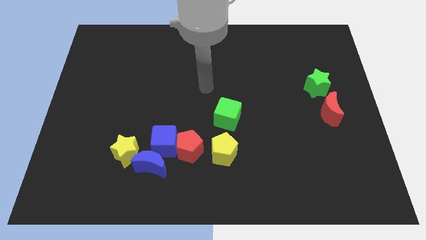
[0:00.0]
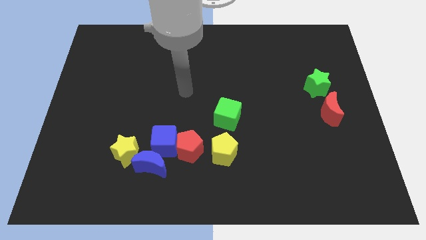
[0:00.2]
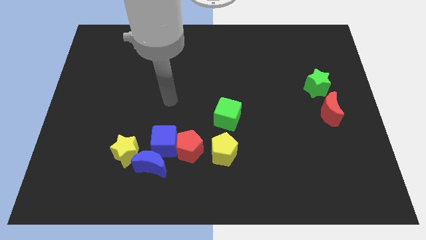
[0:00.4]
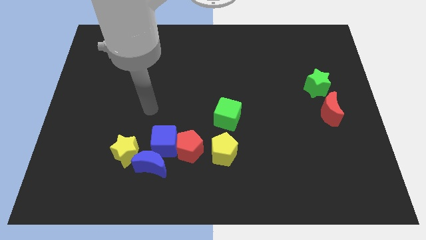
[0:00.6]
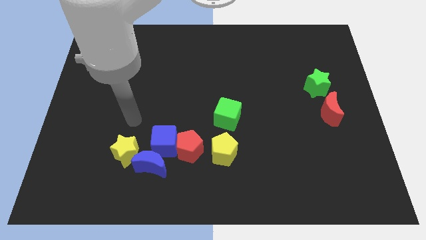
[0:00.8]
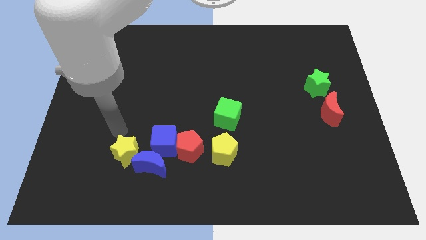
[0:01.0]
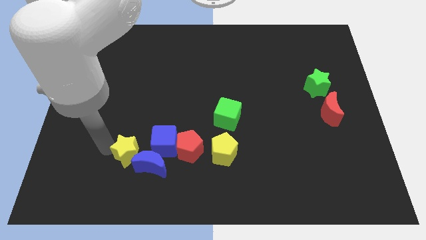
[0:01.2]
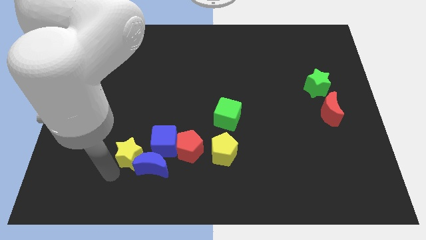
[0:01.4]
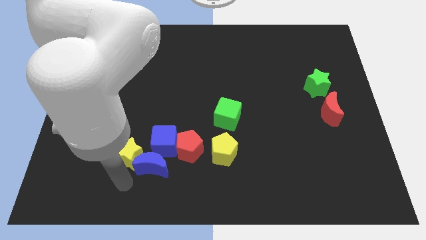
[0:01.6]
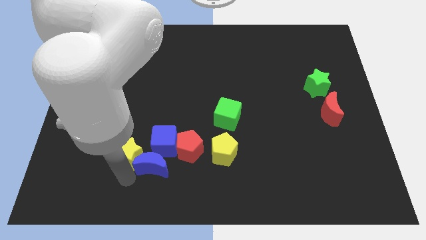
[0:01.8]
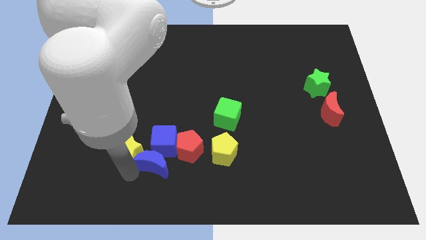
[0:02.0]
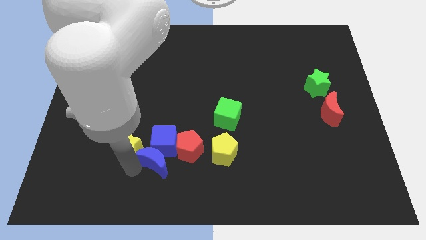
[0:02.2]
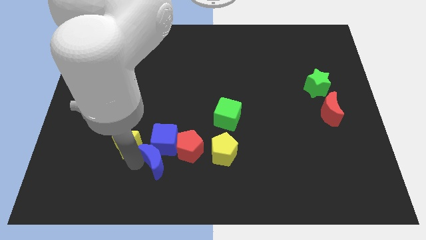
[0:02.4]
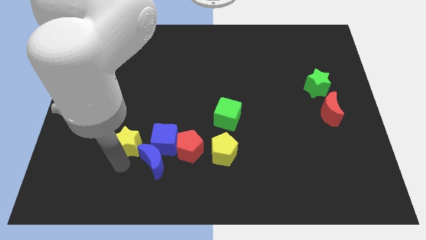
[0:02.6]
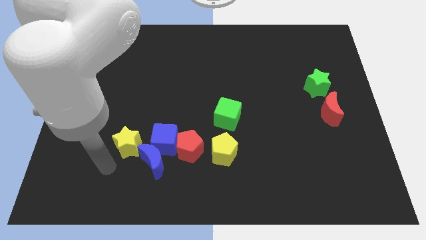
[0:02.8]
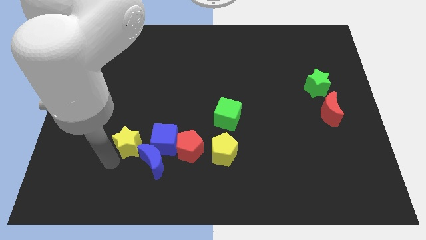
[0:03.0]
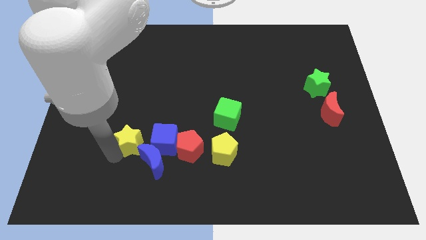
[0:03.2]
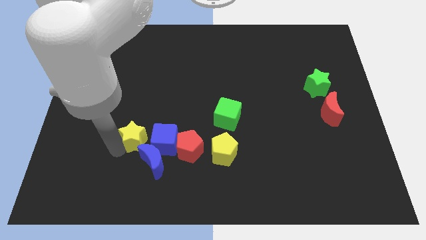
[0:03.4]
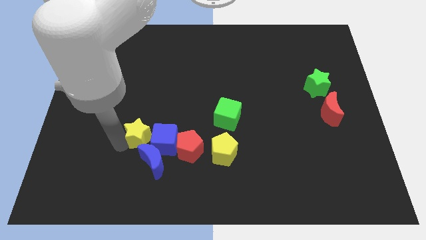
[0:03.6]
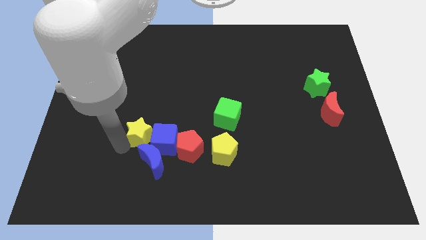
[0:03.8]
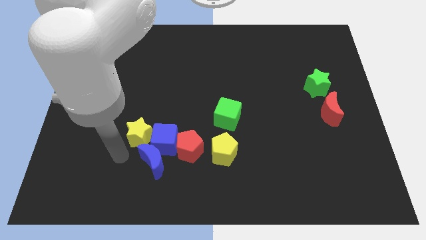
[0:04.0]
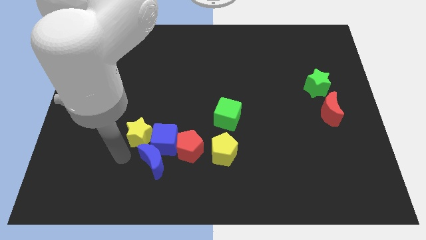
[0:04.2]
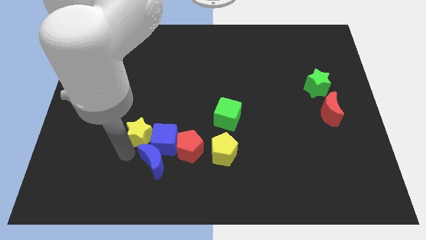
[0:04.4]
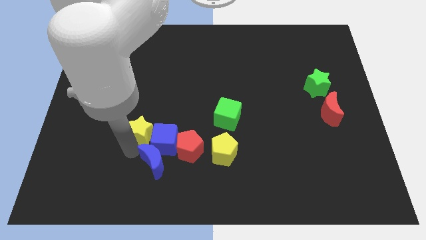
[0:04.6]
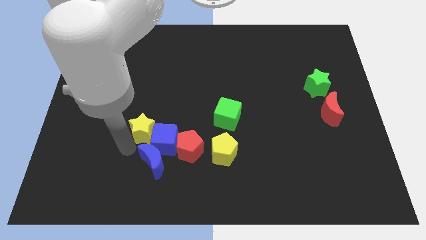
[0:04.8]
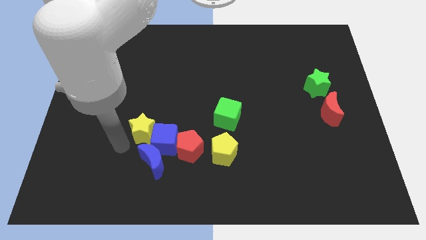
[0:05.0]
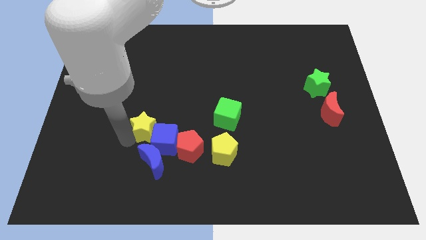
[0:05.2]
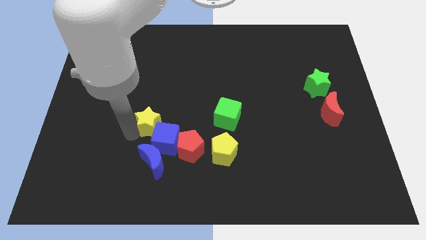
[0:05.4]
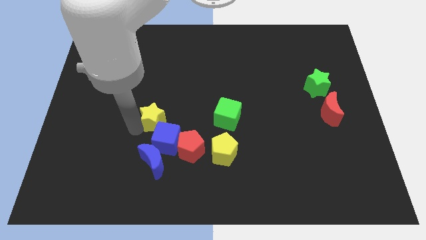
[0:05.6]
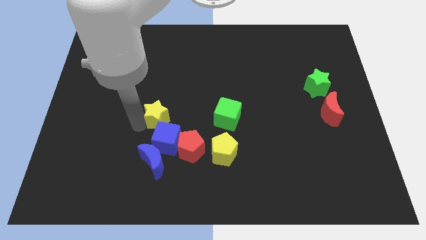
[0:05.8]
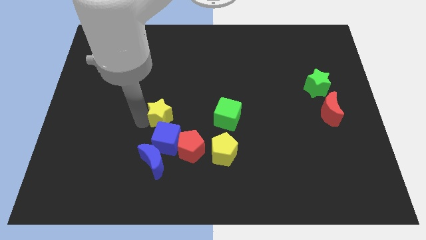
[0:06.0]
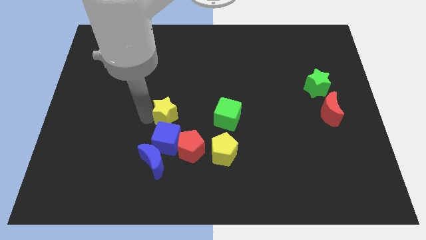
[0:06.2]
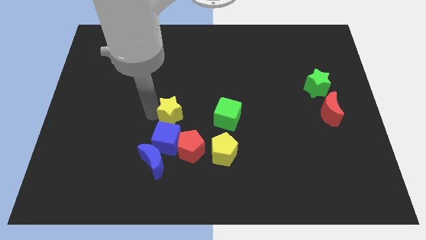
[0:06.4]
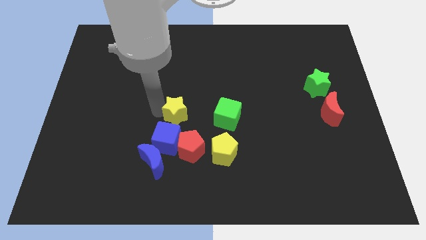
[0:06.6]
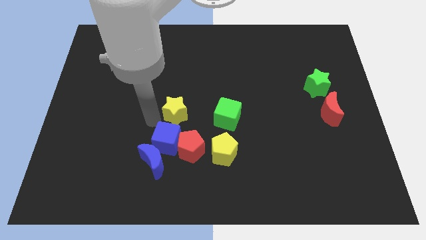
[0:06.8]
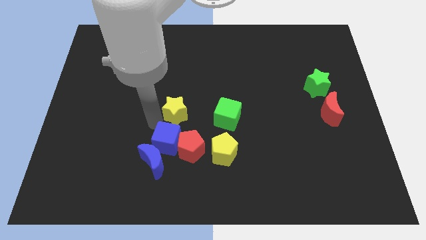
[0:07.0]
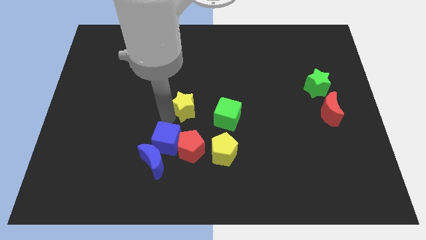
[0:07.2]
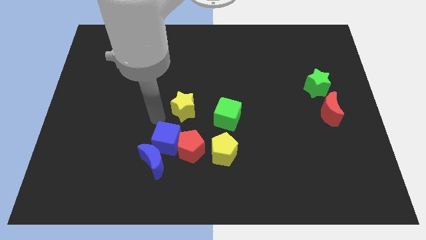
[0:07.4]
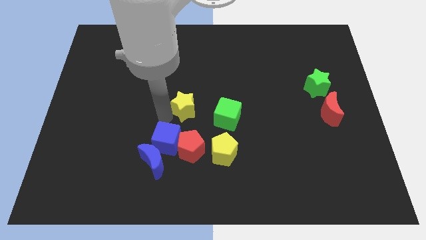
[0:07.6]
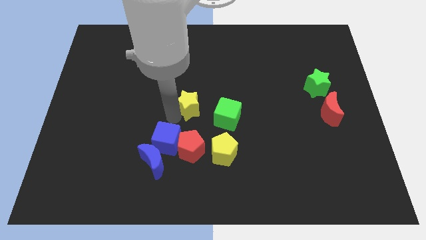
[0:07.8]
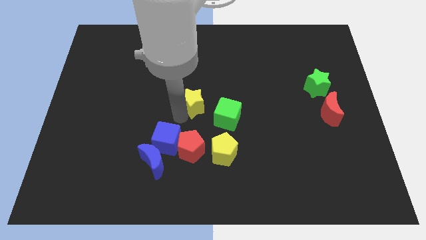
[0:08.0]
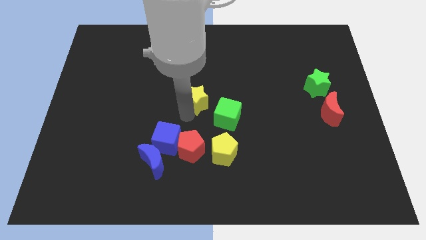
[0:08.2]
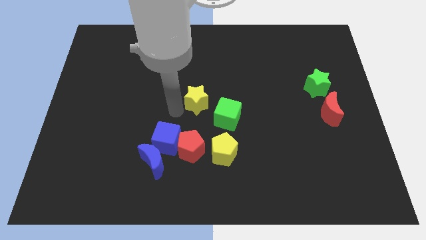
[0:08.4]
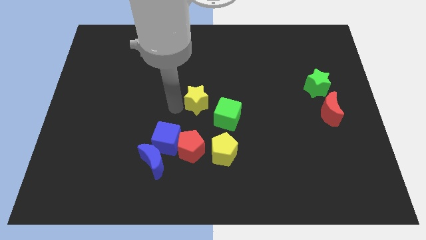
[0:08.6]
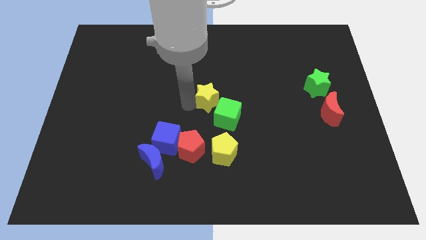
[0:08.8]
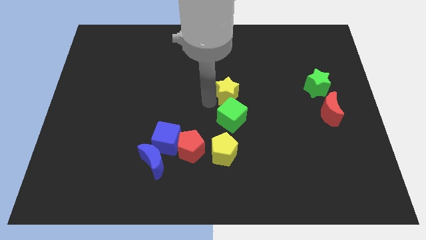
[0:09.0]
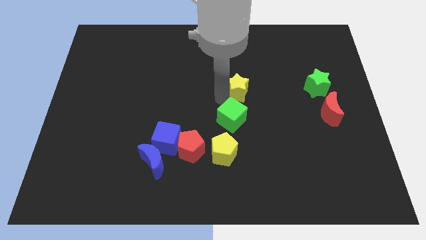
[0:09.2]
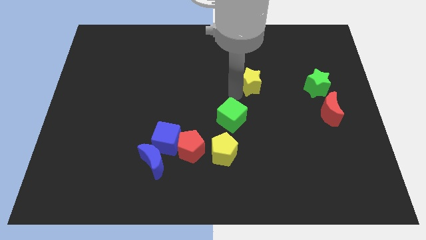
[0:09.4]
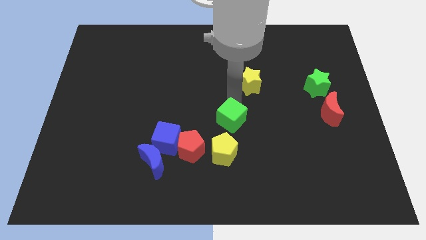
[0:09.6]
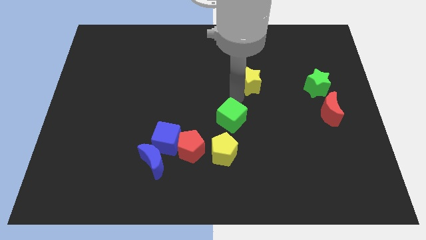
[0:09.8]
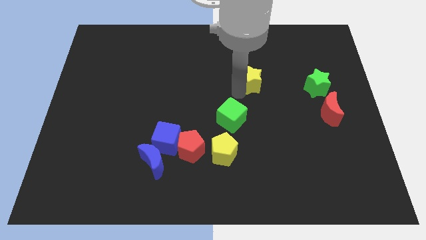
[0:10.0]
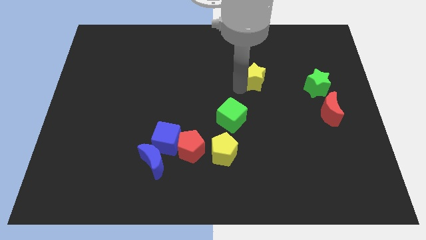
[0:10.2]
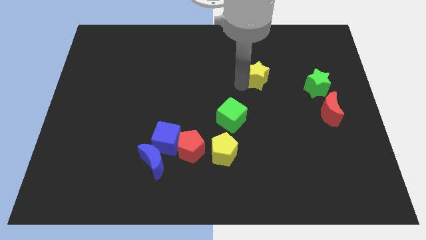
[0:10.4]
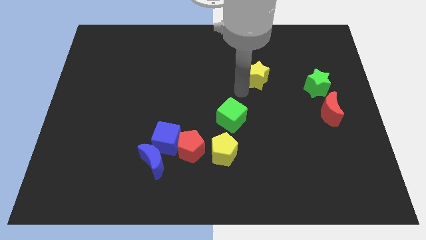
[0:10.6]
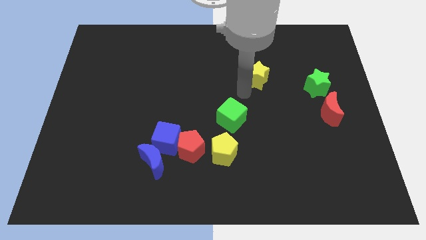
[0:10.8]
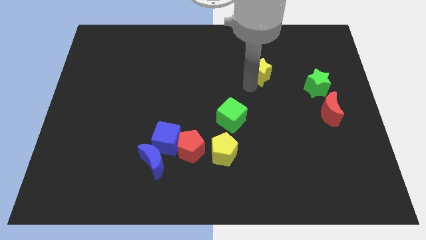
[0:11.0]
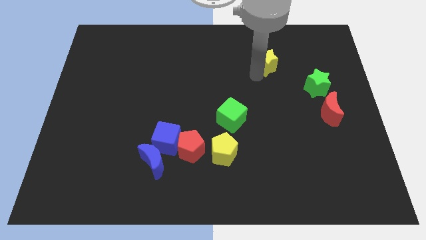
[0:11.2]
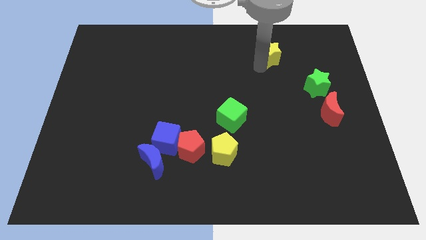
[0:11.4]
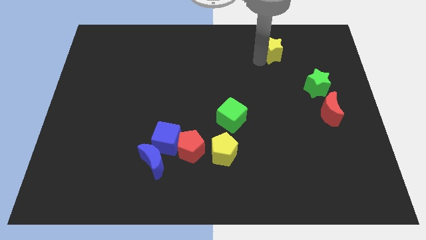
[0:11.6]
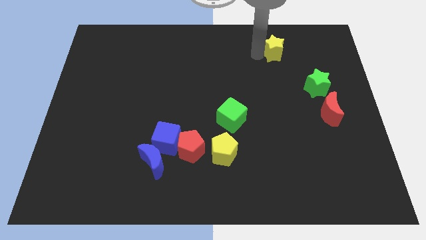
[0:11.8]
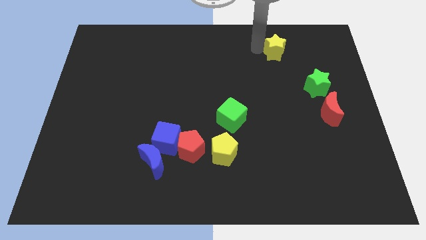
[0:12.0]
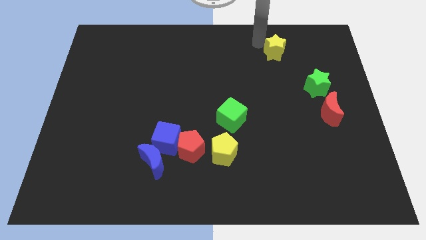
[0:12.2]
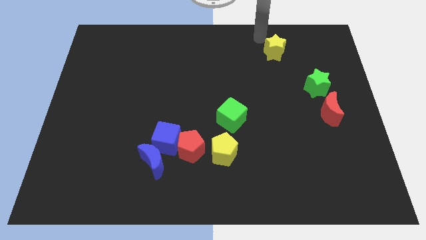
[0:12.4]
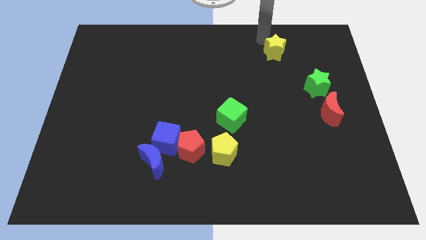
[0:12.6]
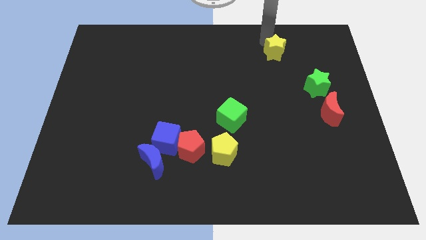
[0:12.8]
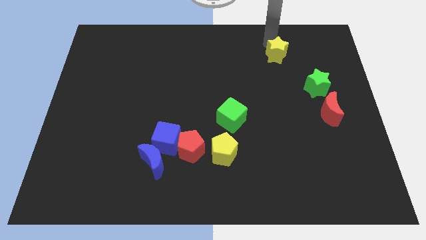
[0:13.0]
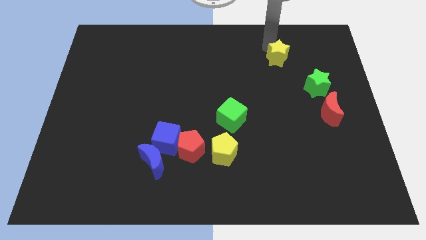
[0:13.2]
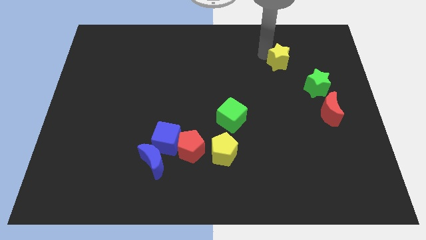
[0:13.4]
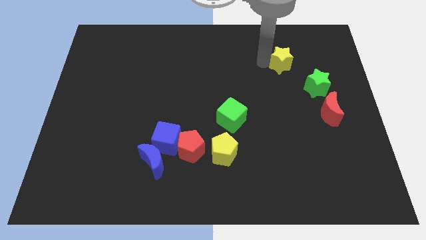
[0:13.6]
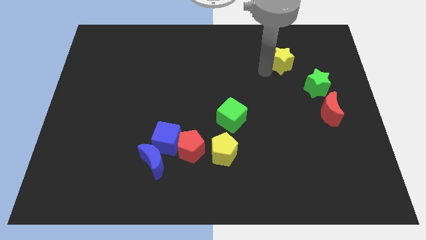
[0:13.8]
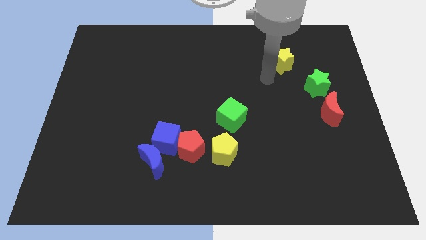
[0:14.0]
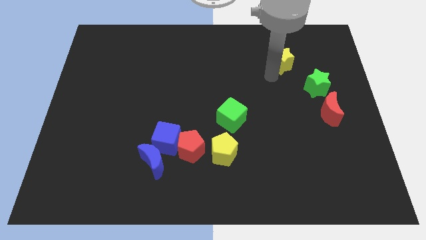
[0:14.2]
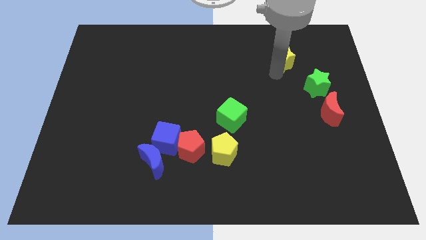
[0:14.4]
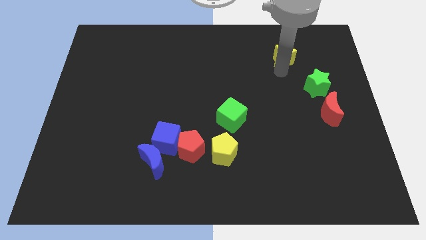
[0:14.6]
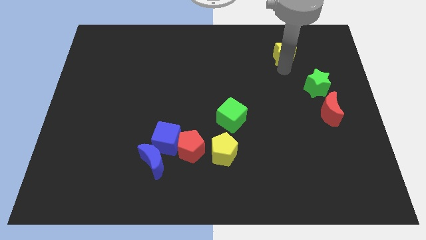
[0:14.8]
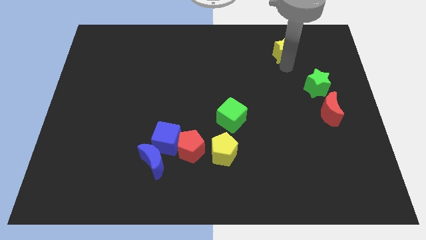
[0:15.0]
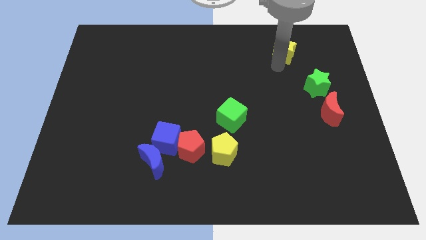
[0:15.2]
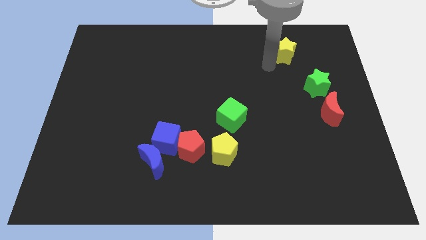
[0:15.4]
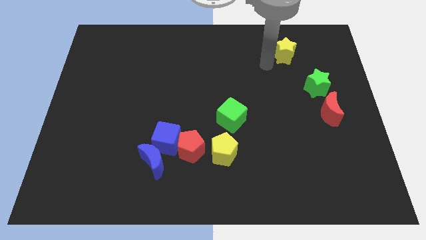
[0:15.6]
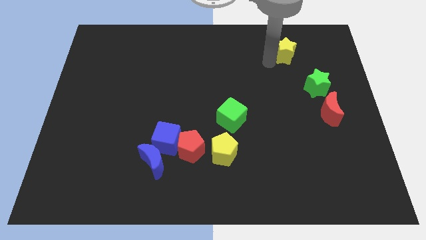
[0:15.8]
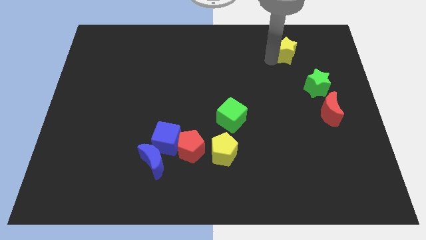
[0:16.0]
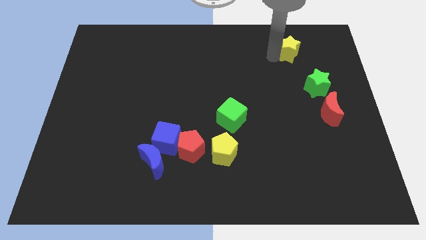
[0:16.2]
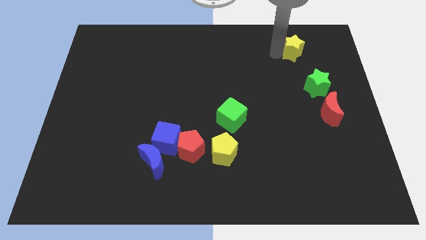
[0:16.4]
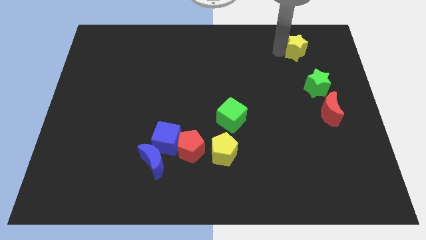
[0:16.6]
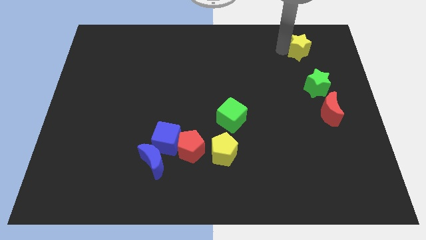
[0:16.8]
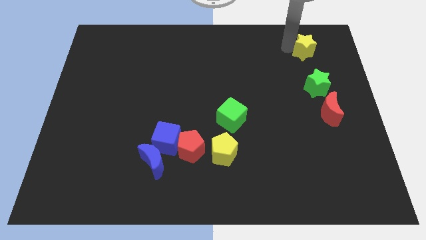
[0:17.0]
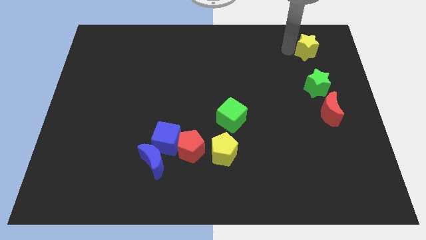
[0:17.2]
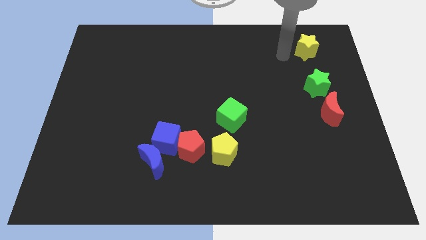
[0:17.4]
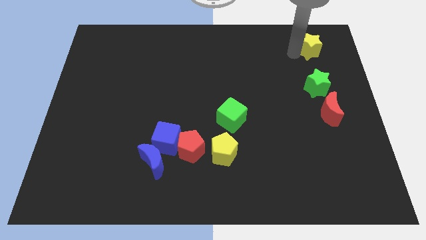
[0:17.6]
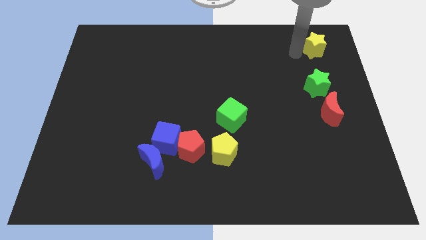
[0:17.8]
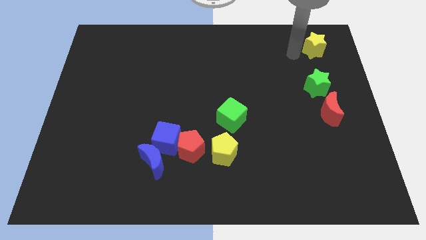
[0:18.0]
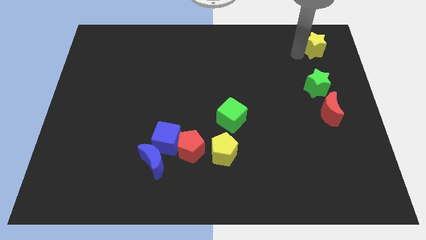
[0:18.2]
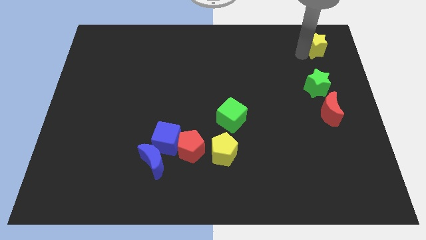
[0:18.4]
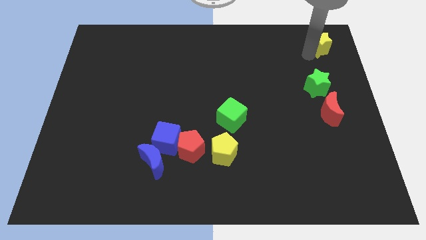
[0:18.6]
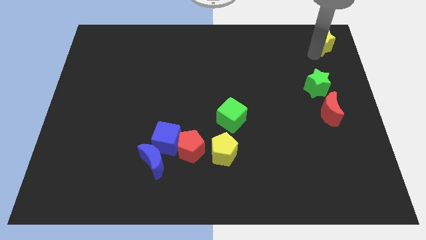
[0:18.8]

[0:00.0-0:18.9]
slide the yellow star to the top right corner
